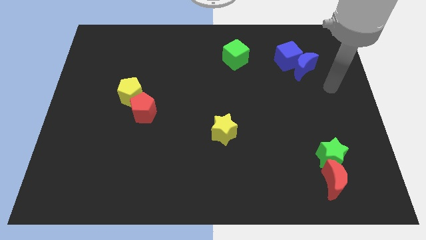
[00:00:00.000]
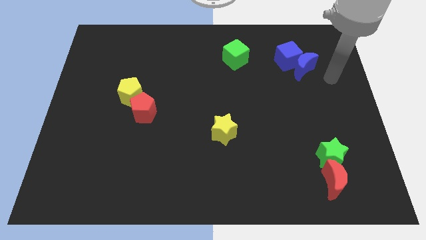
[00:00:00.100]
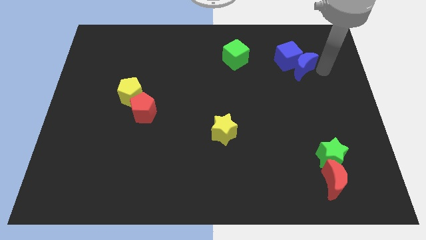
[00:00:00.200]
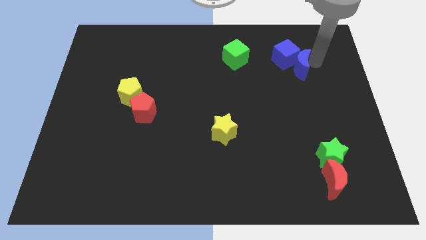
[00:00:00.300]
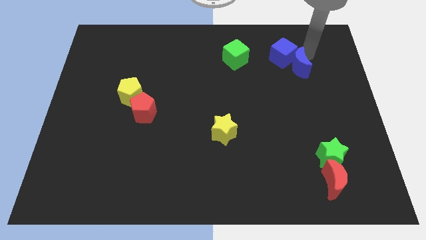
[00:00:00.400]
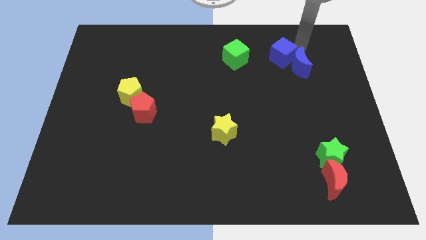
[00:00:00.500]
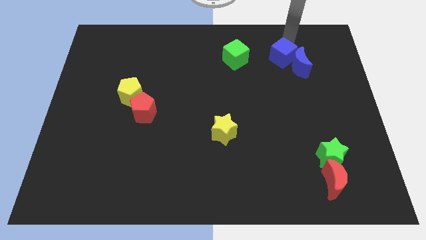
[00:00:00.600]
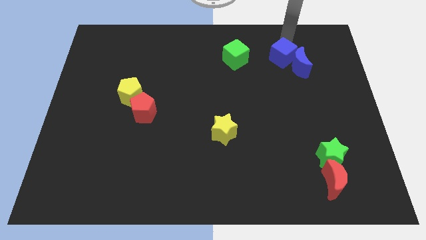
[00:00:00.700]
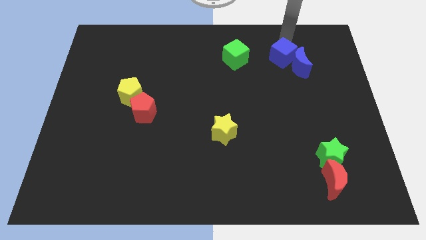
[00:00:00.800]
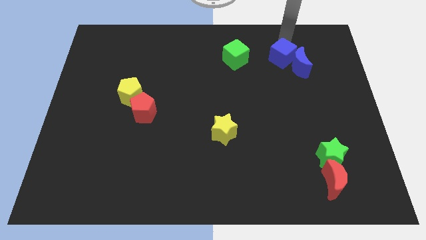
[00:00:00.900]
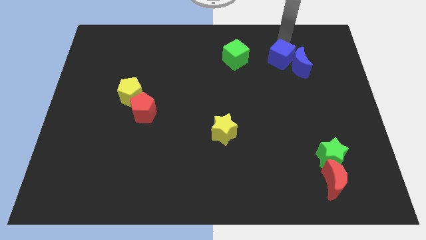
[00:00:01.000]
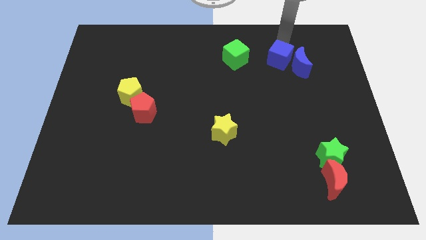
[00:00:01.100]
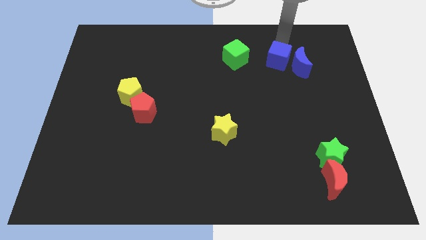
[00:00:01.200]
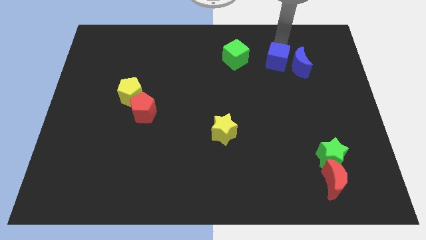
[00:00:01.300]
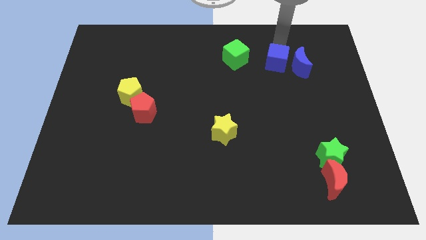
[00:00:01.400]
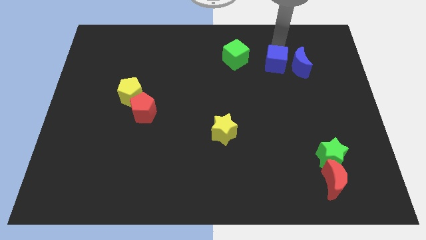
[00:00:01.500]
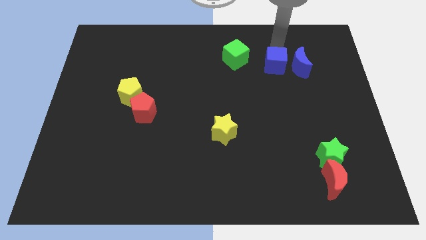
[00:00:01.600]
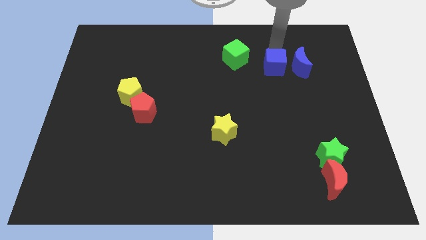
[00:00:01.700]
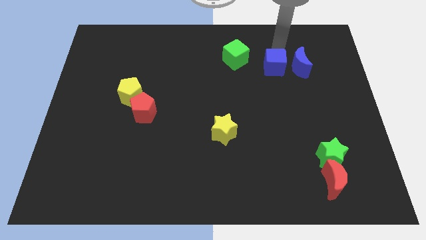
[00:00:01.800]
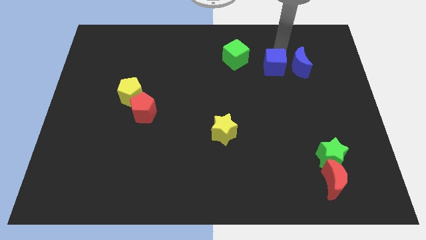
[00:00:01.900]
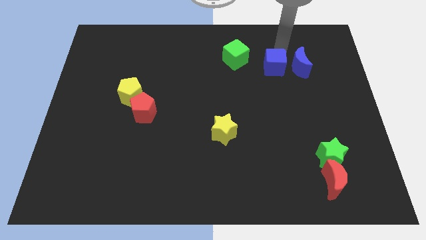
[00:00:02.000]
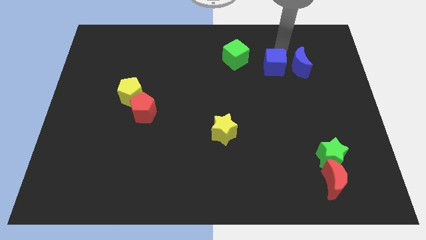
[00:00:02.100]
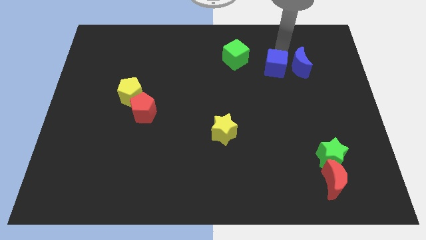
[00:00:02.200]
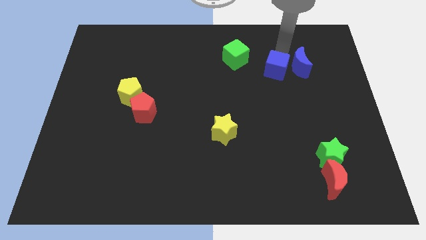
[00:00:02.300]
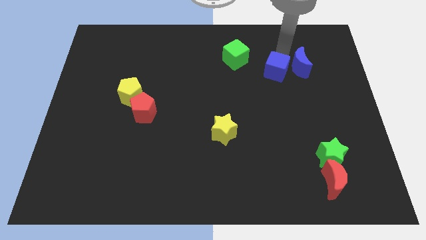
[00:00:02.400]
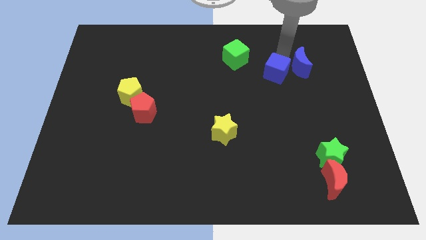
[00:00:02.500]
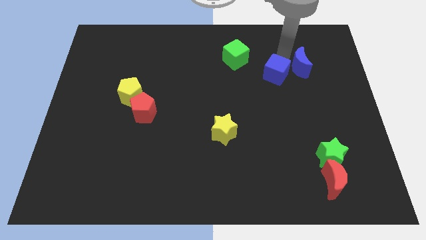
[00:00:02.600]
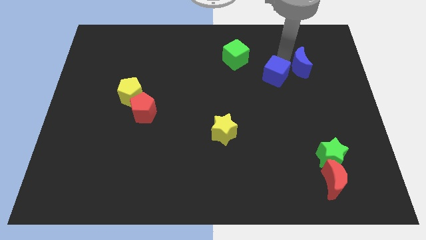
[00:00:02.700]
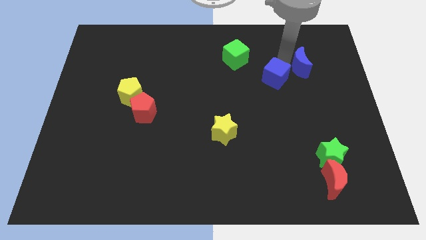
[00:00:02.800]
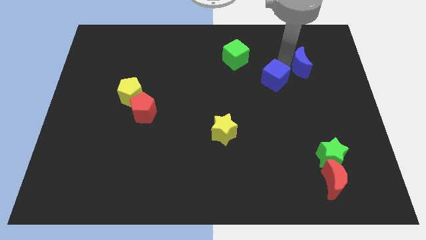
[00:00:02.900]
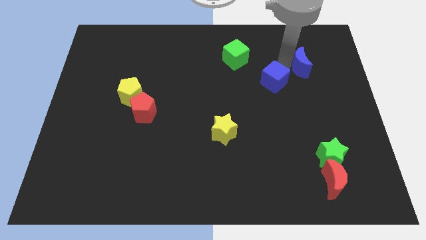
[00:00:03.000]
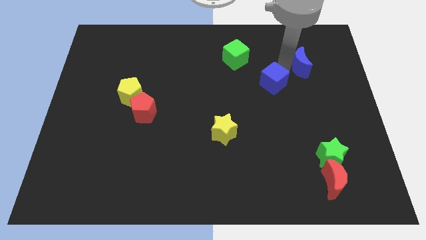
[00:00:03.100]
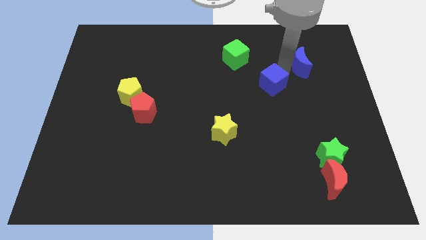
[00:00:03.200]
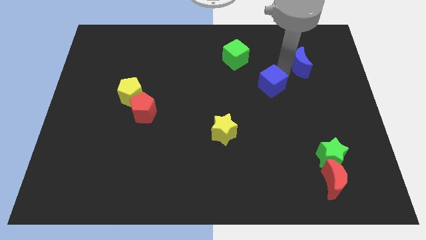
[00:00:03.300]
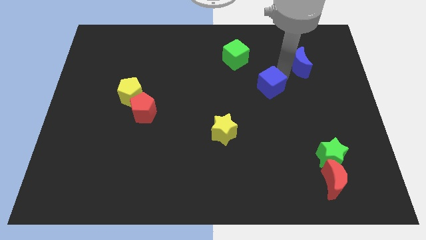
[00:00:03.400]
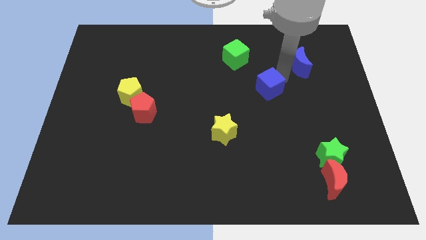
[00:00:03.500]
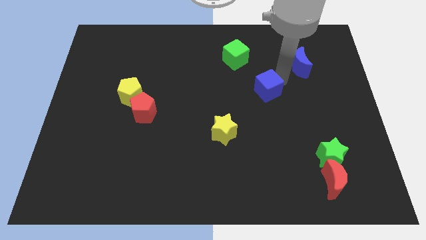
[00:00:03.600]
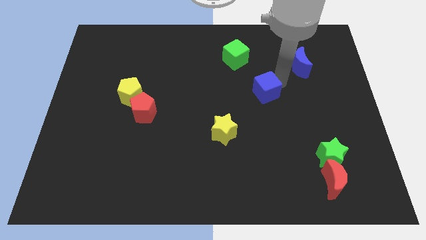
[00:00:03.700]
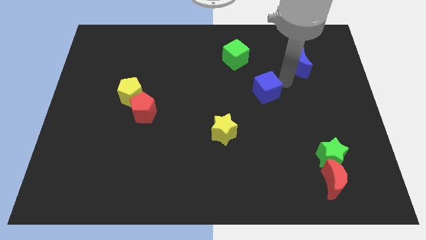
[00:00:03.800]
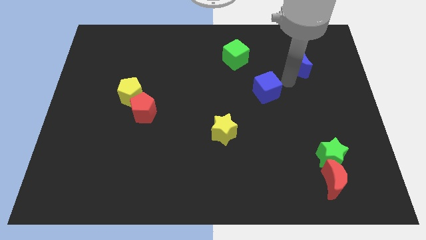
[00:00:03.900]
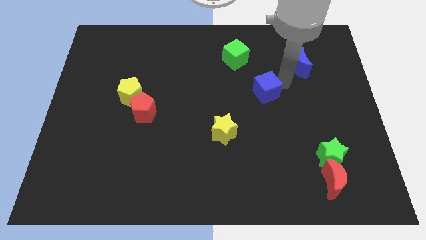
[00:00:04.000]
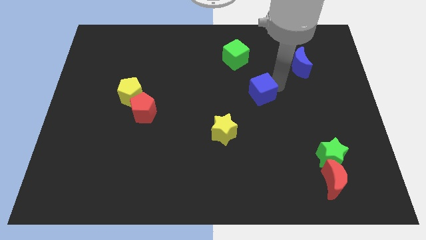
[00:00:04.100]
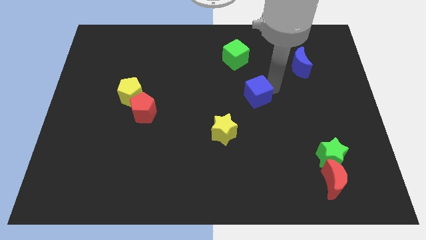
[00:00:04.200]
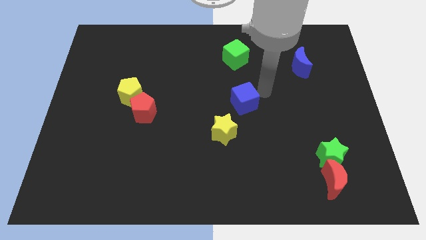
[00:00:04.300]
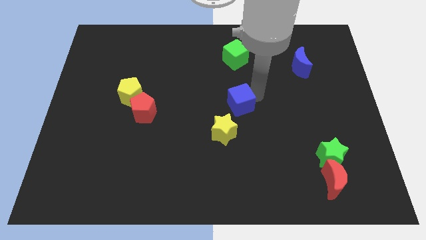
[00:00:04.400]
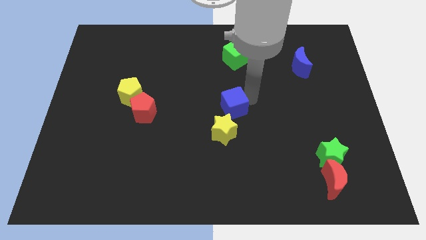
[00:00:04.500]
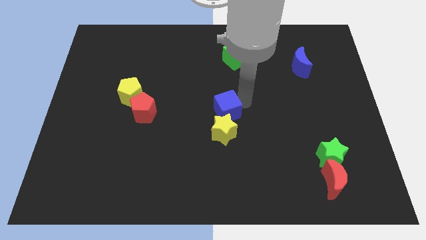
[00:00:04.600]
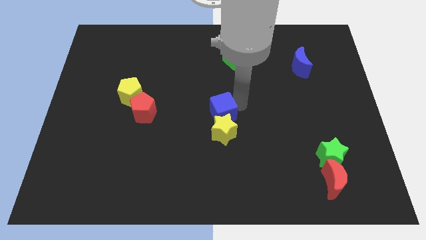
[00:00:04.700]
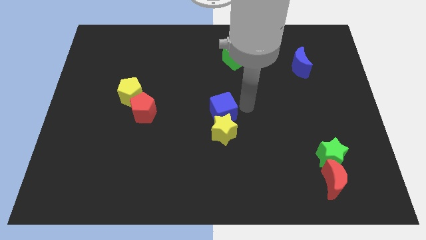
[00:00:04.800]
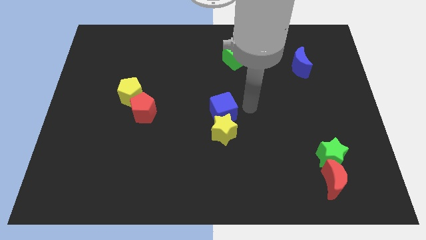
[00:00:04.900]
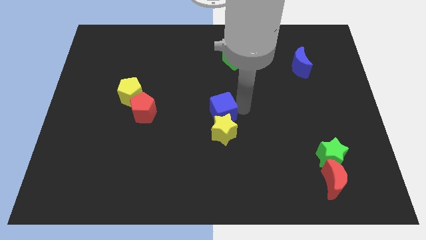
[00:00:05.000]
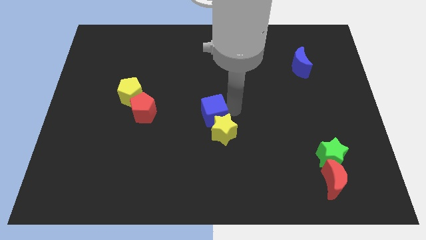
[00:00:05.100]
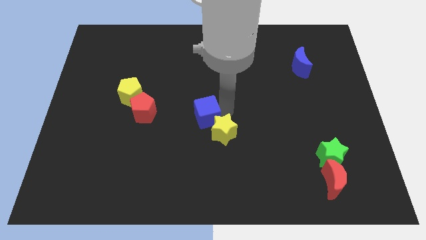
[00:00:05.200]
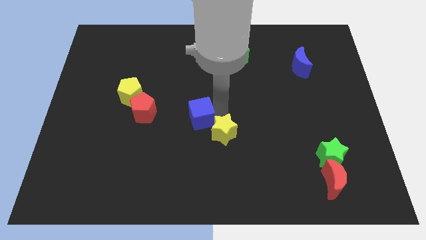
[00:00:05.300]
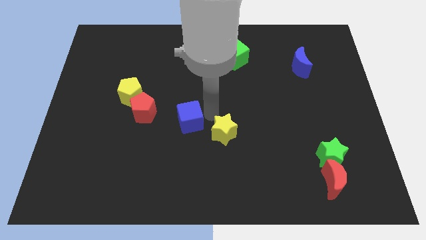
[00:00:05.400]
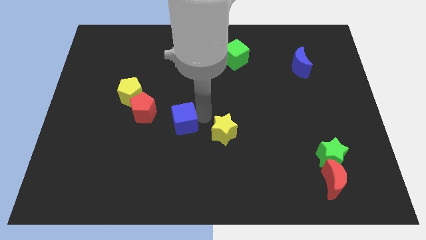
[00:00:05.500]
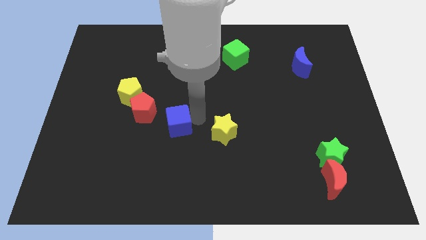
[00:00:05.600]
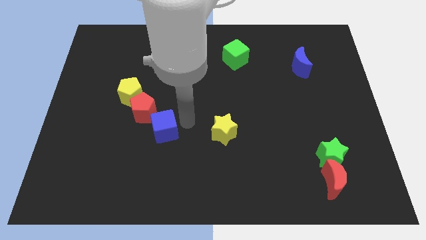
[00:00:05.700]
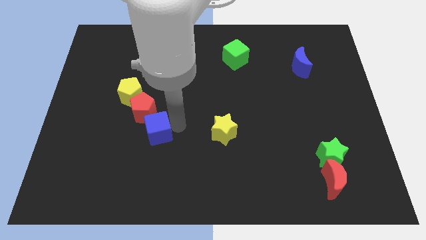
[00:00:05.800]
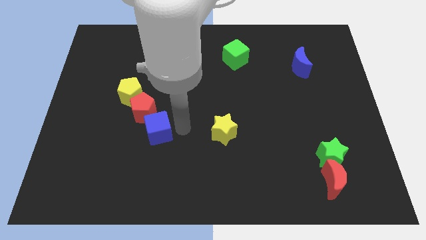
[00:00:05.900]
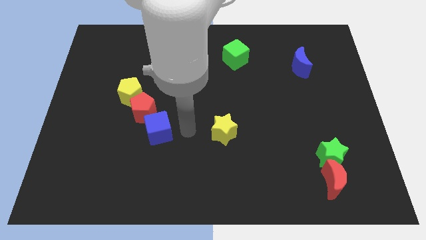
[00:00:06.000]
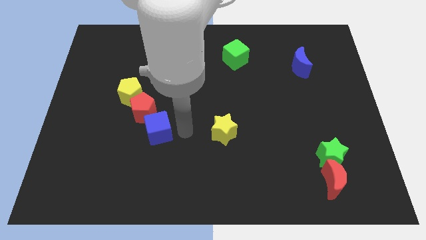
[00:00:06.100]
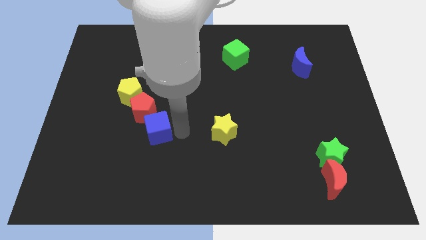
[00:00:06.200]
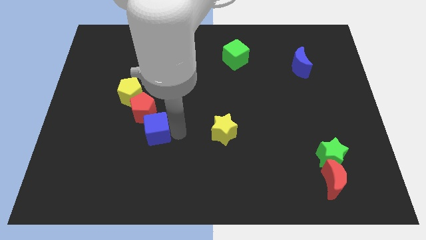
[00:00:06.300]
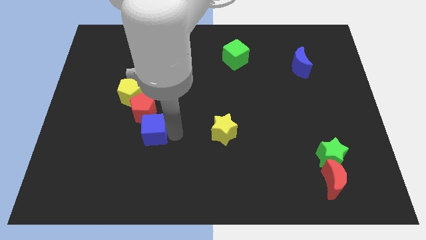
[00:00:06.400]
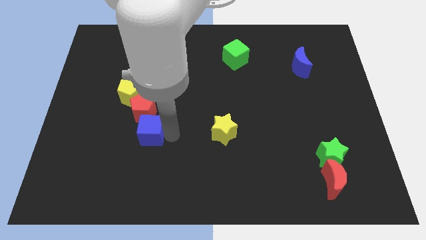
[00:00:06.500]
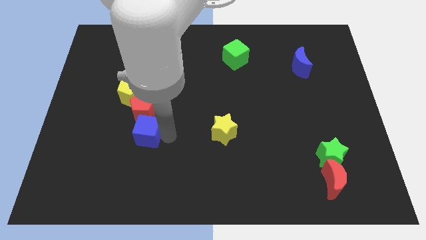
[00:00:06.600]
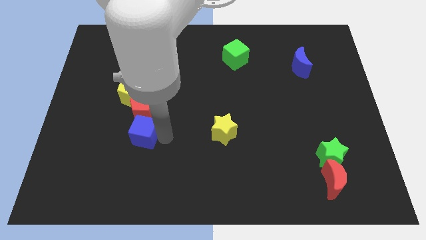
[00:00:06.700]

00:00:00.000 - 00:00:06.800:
slide the blue cube to the bottom of the yellow pentagon
